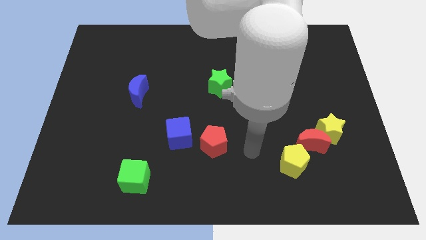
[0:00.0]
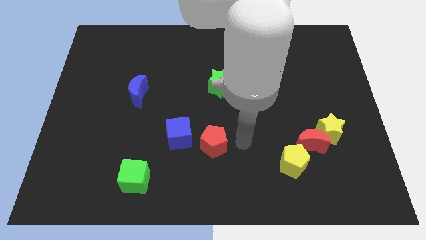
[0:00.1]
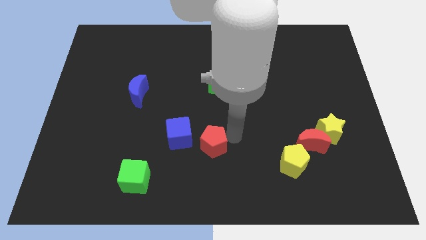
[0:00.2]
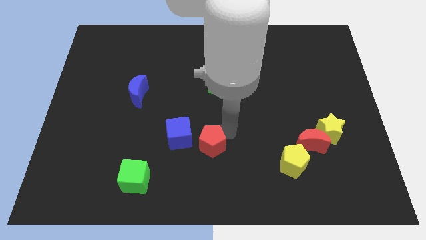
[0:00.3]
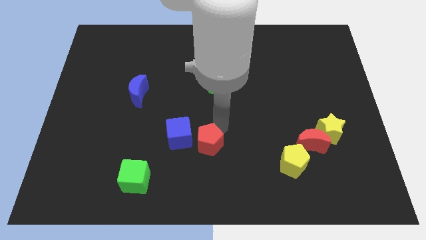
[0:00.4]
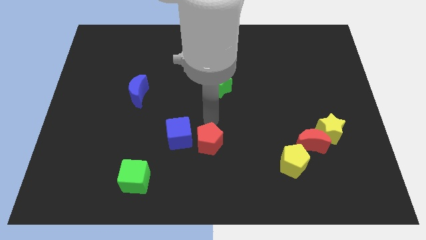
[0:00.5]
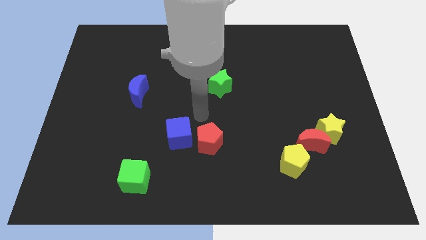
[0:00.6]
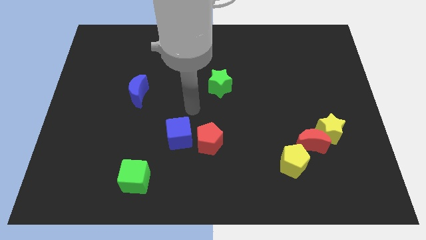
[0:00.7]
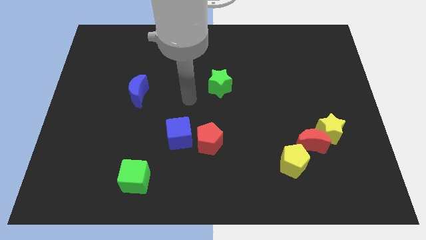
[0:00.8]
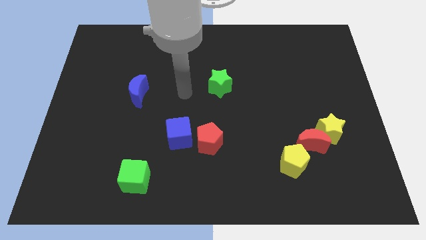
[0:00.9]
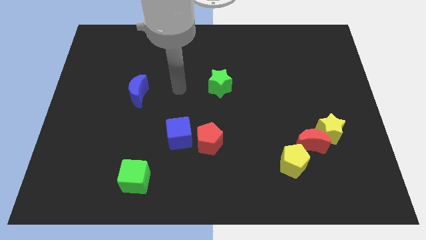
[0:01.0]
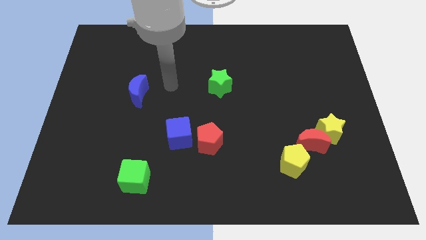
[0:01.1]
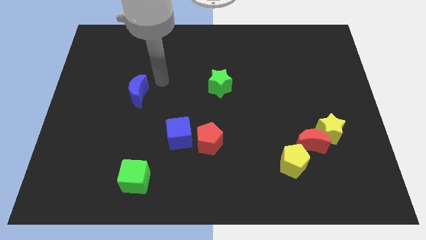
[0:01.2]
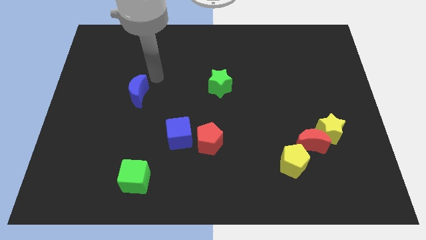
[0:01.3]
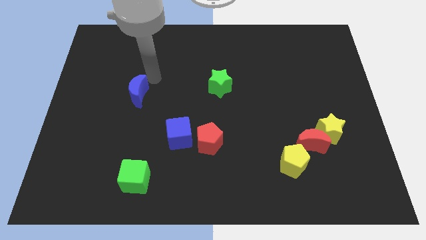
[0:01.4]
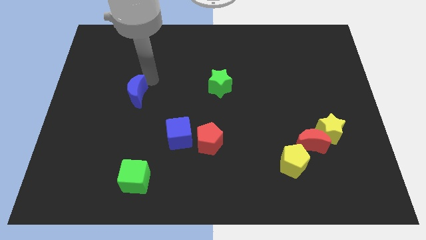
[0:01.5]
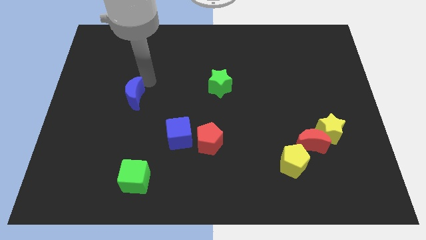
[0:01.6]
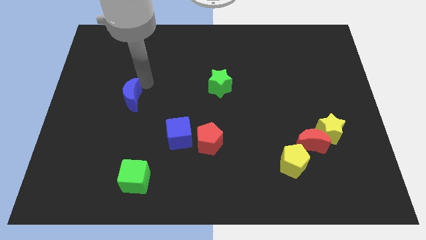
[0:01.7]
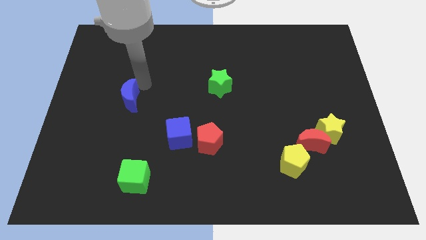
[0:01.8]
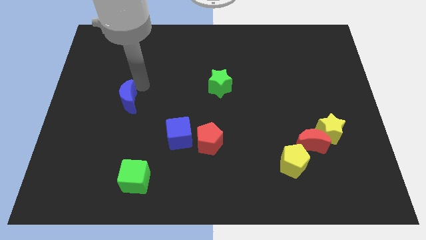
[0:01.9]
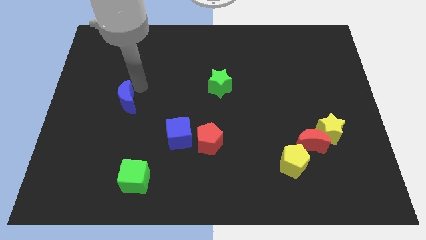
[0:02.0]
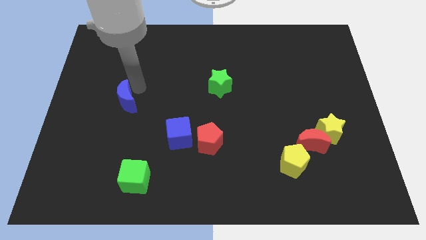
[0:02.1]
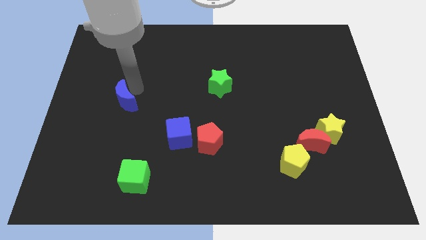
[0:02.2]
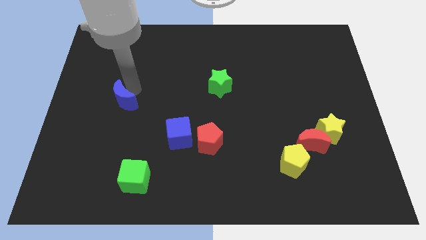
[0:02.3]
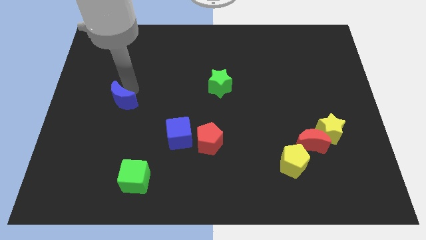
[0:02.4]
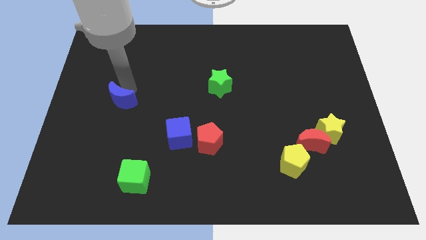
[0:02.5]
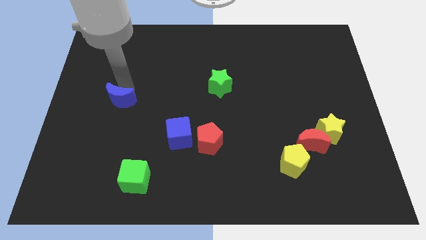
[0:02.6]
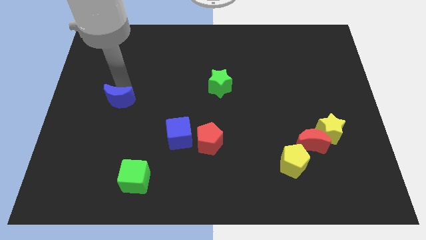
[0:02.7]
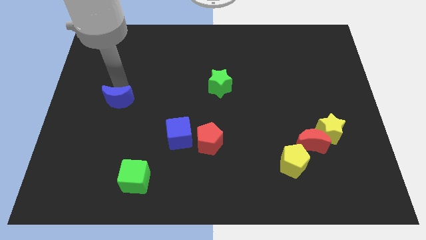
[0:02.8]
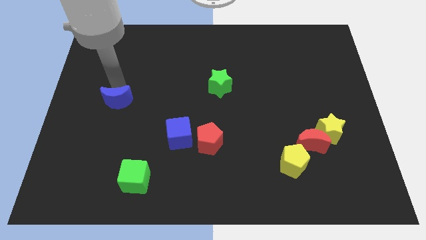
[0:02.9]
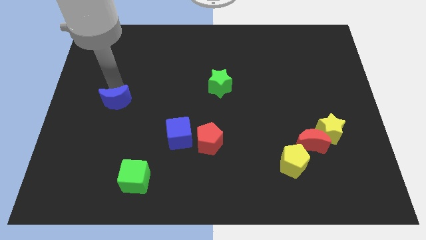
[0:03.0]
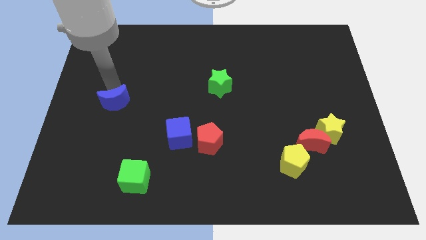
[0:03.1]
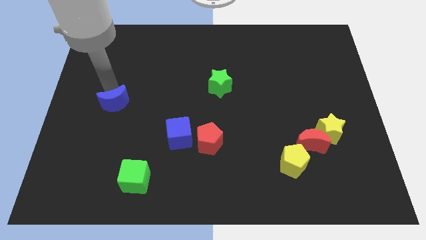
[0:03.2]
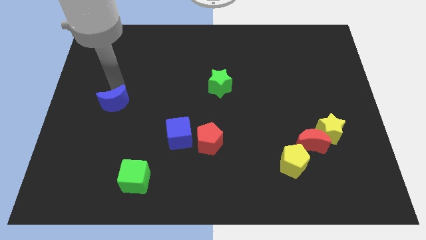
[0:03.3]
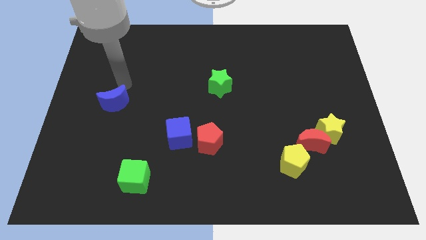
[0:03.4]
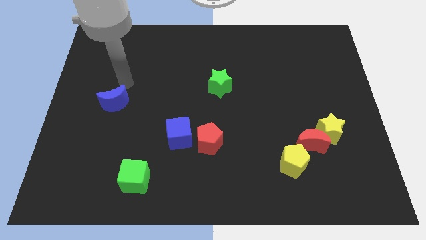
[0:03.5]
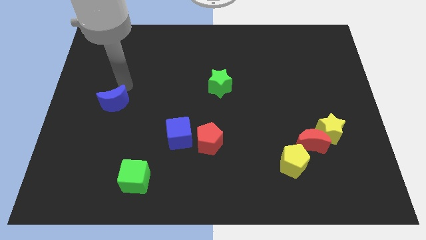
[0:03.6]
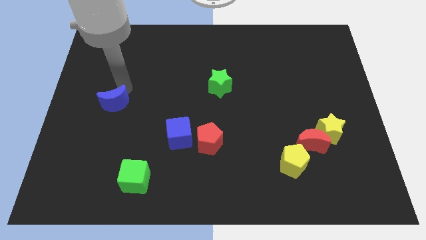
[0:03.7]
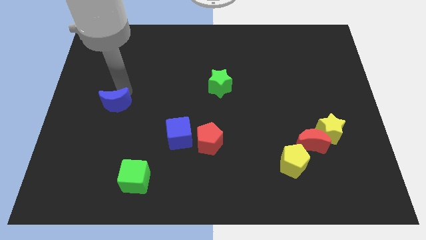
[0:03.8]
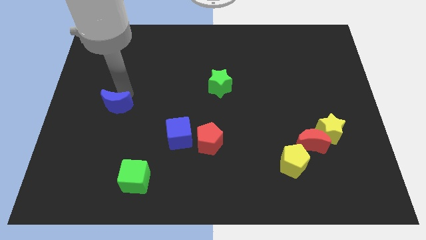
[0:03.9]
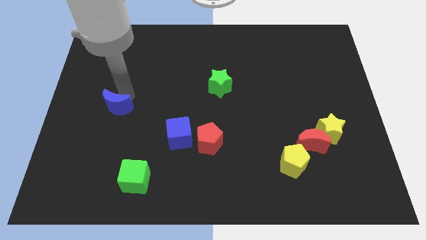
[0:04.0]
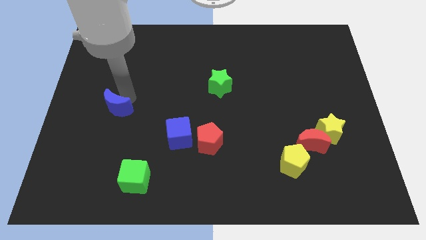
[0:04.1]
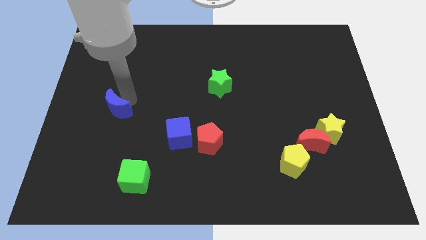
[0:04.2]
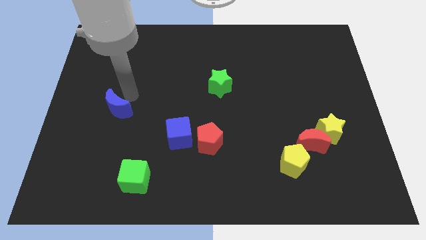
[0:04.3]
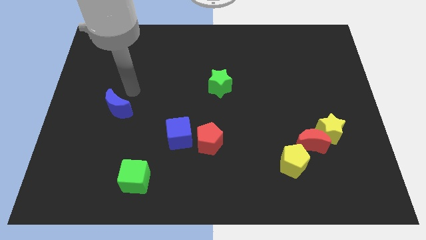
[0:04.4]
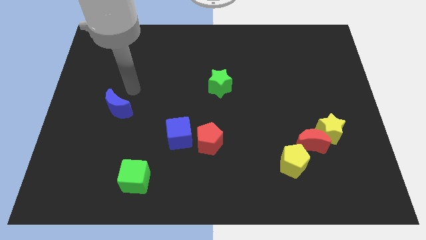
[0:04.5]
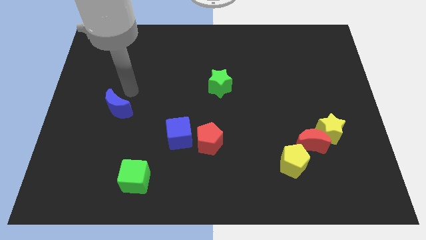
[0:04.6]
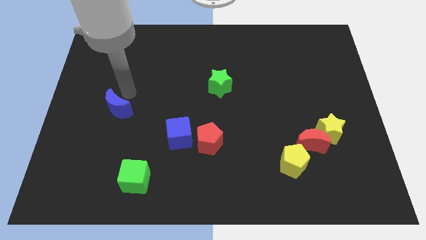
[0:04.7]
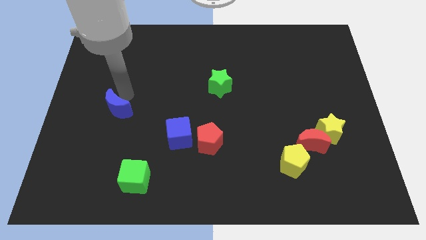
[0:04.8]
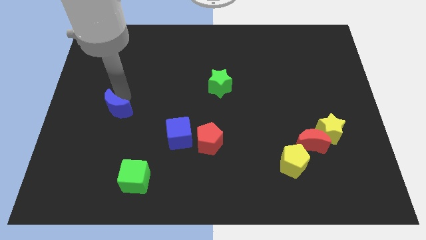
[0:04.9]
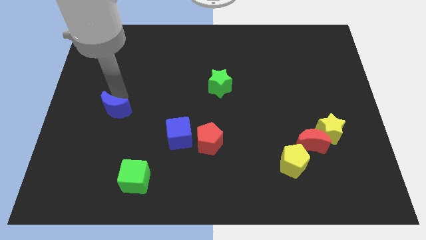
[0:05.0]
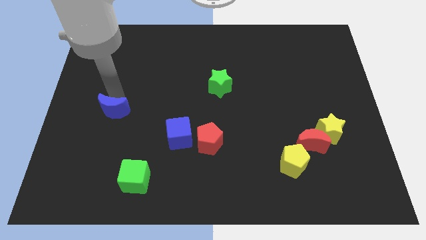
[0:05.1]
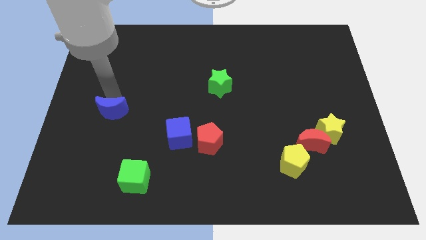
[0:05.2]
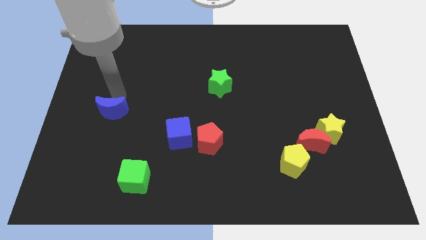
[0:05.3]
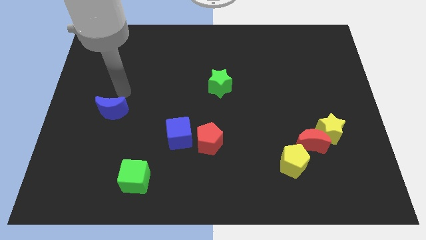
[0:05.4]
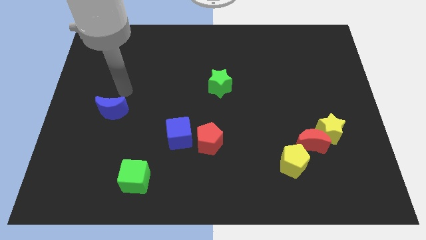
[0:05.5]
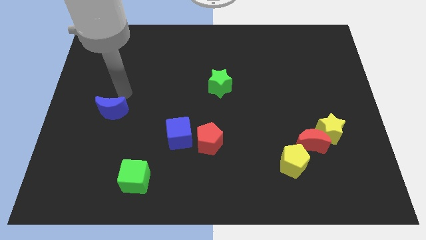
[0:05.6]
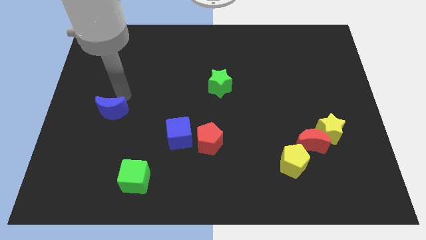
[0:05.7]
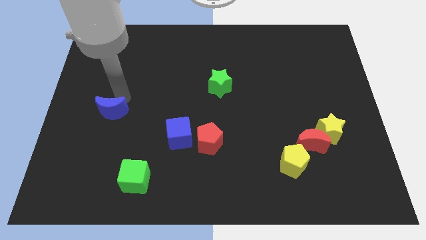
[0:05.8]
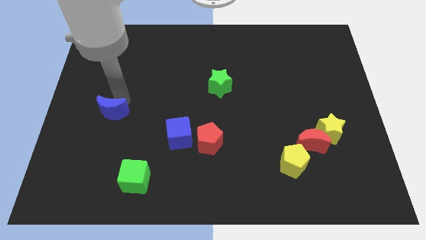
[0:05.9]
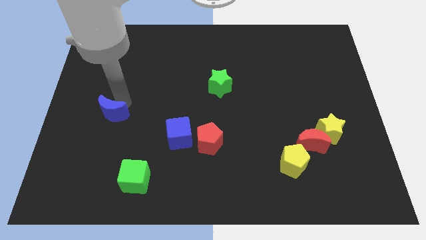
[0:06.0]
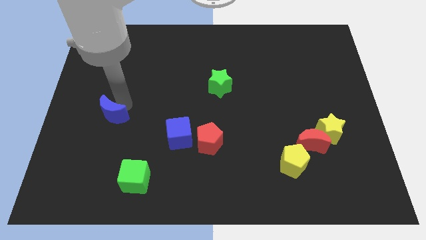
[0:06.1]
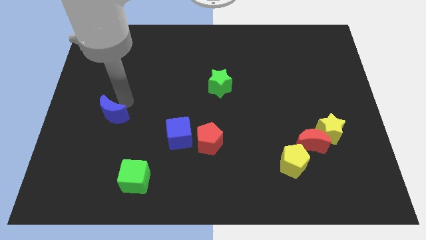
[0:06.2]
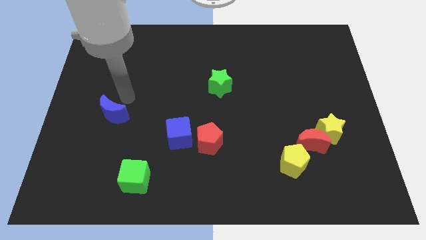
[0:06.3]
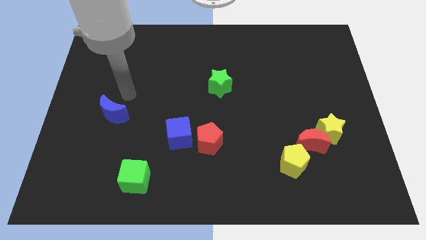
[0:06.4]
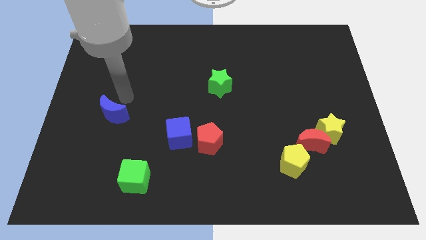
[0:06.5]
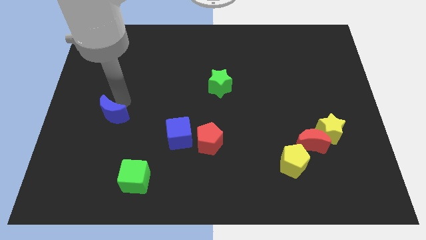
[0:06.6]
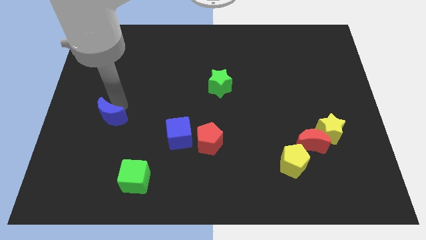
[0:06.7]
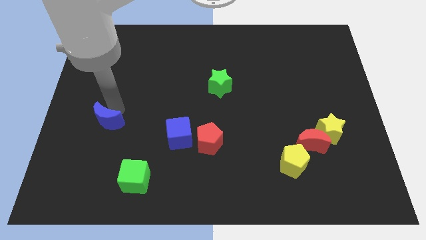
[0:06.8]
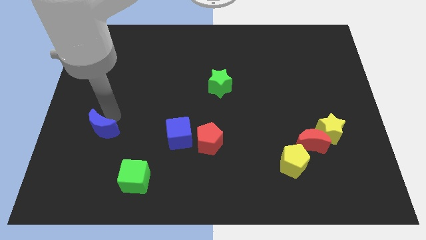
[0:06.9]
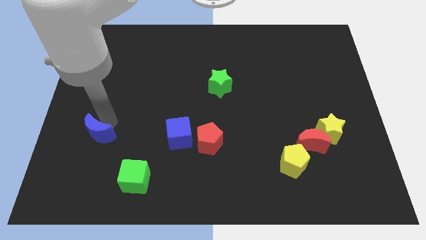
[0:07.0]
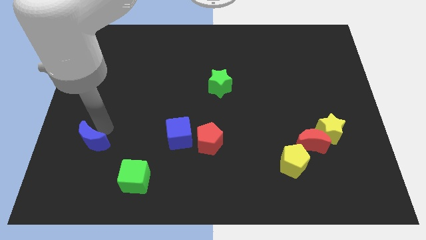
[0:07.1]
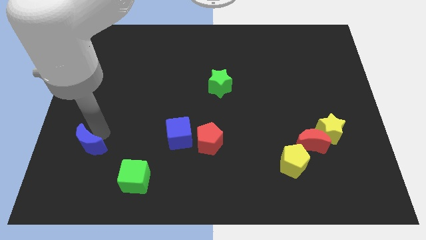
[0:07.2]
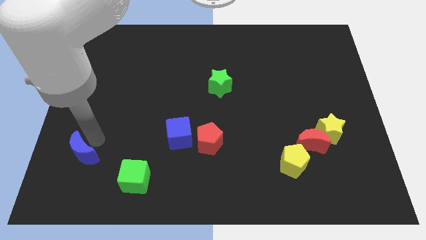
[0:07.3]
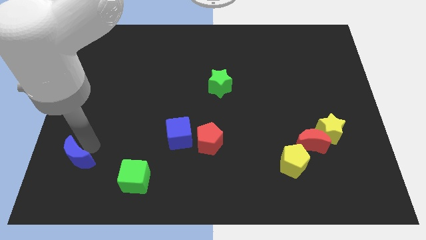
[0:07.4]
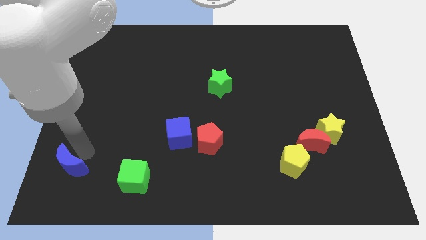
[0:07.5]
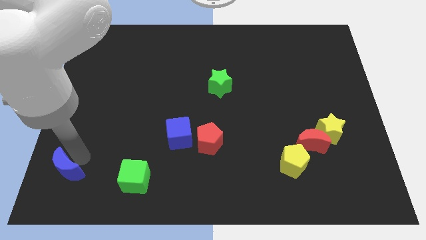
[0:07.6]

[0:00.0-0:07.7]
move the blue moon to the lower left corner
